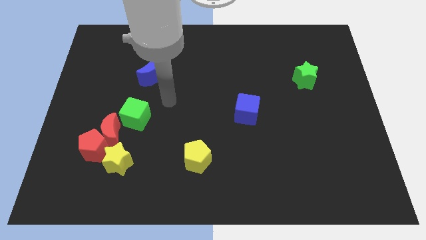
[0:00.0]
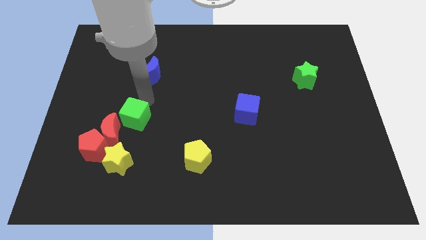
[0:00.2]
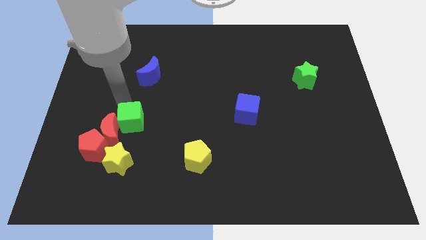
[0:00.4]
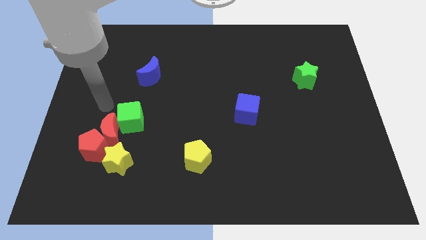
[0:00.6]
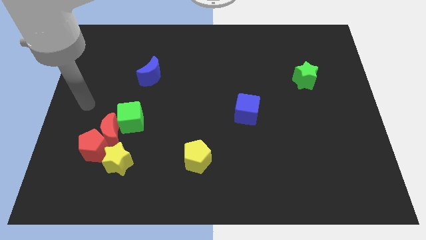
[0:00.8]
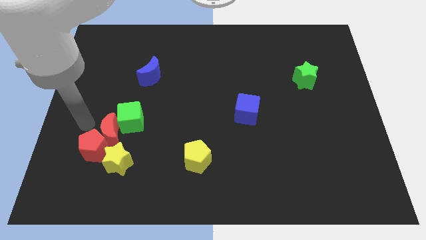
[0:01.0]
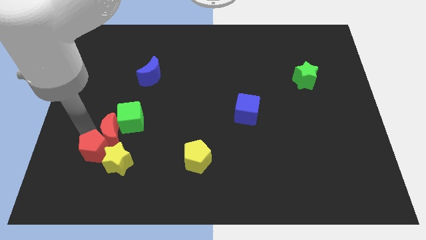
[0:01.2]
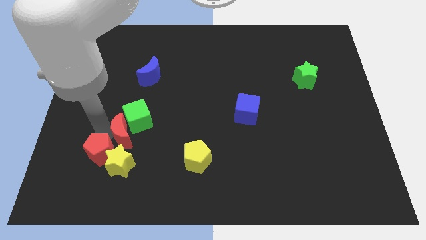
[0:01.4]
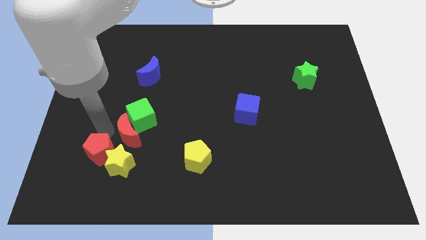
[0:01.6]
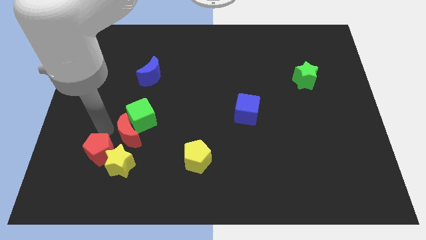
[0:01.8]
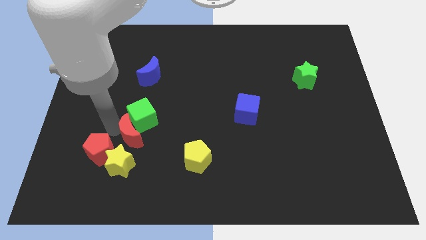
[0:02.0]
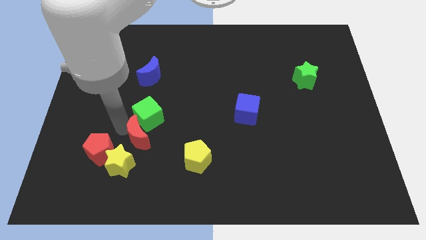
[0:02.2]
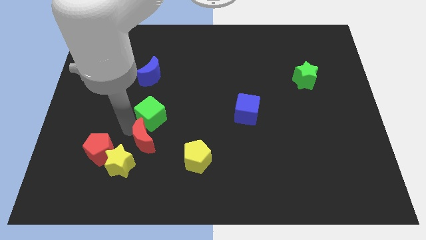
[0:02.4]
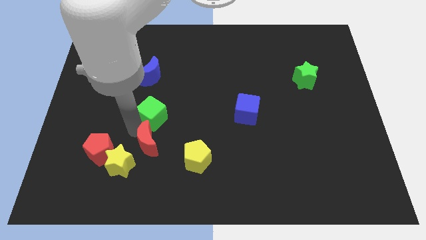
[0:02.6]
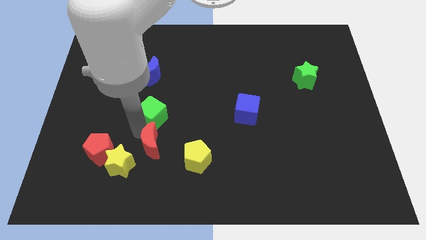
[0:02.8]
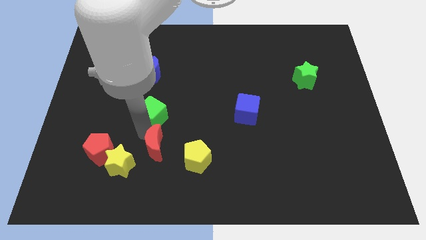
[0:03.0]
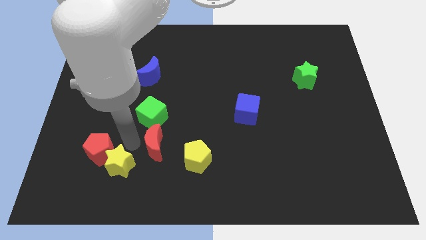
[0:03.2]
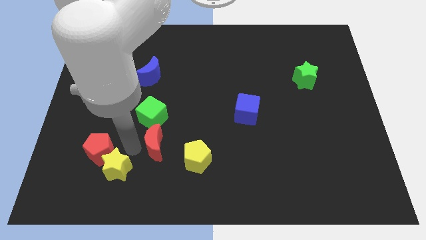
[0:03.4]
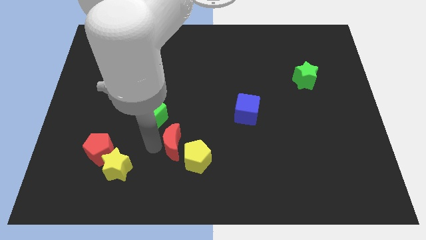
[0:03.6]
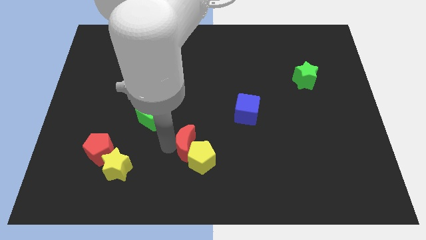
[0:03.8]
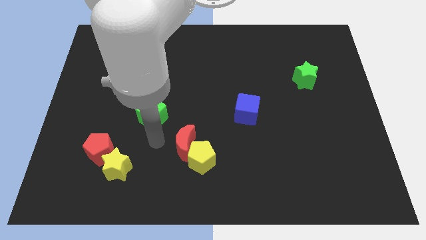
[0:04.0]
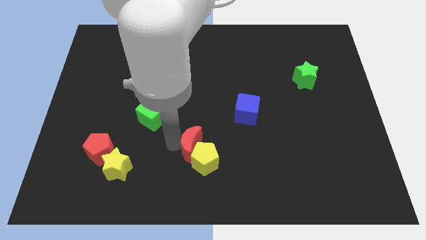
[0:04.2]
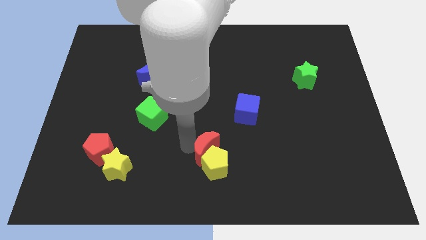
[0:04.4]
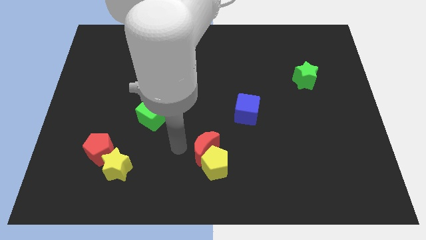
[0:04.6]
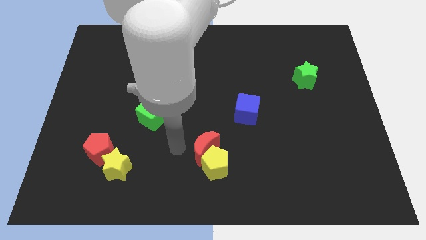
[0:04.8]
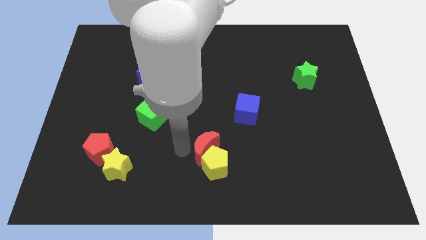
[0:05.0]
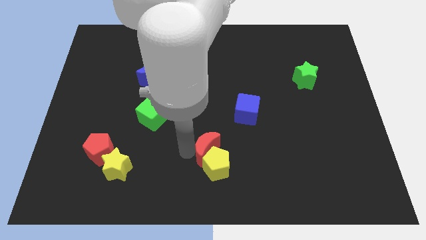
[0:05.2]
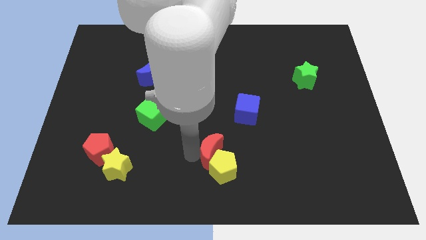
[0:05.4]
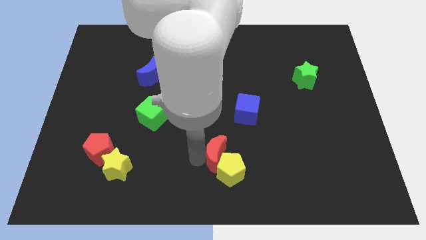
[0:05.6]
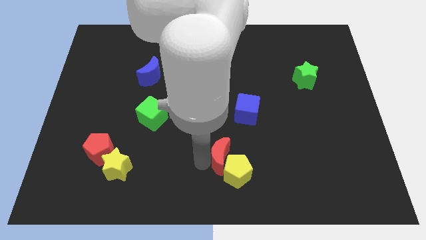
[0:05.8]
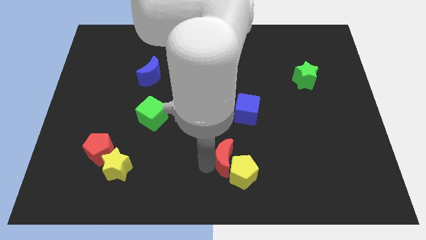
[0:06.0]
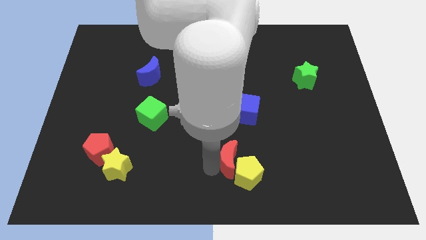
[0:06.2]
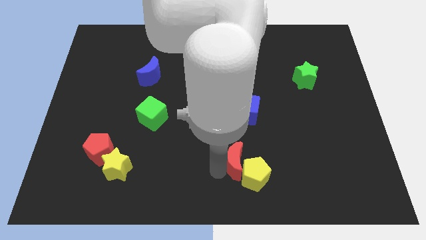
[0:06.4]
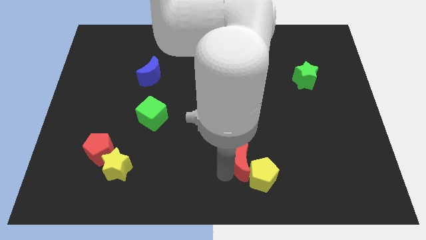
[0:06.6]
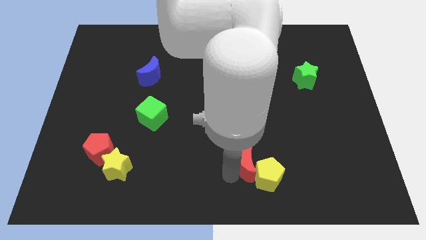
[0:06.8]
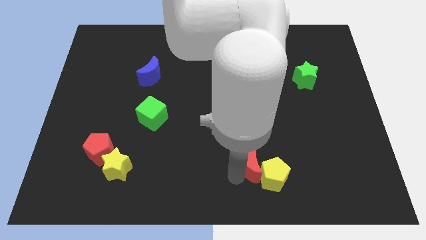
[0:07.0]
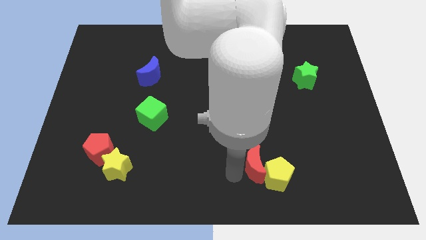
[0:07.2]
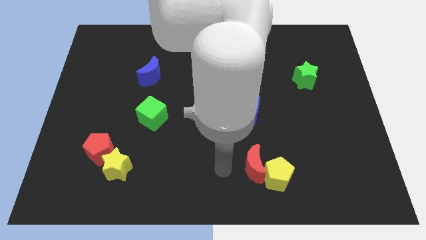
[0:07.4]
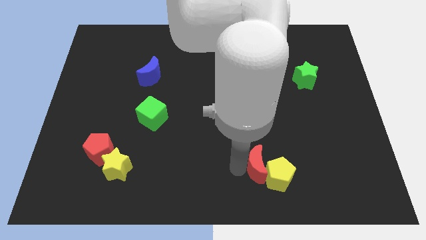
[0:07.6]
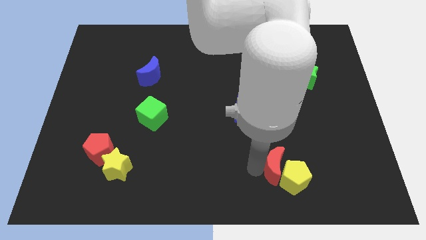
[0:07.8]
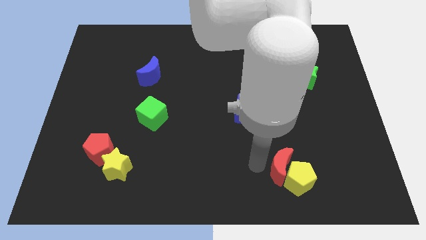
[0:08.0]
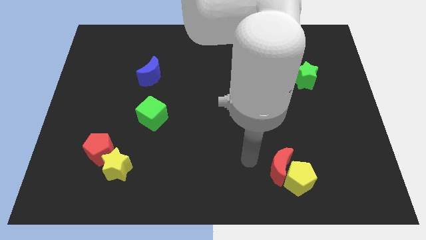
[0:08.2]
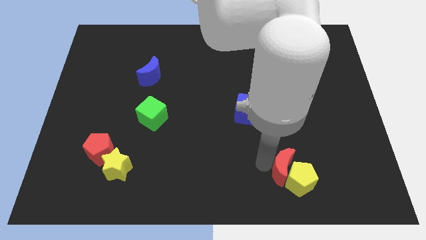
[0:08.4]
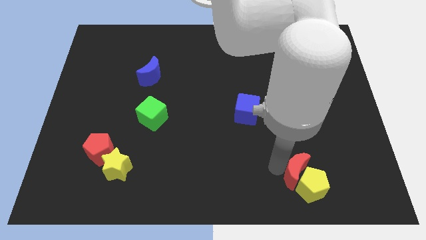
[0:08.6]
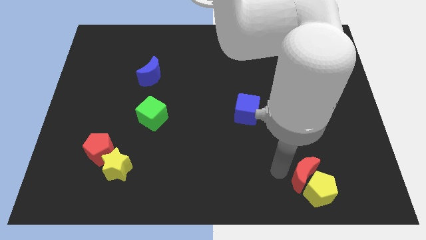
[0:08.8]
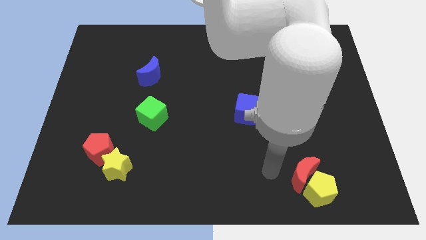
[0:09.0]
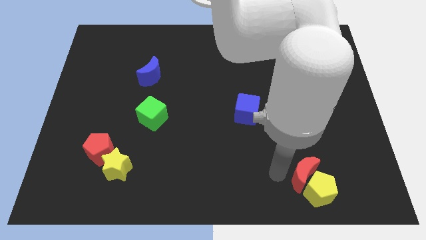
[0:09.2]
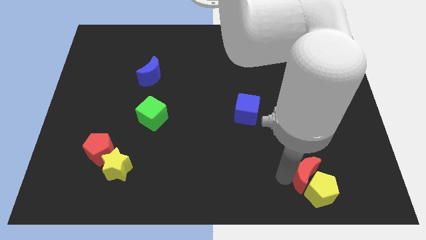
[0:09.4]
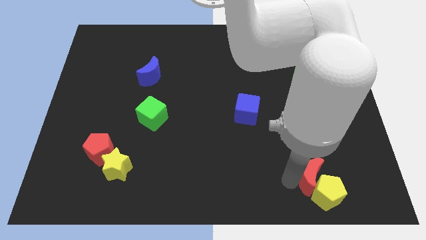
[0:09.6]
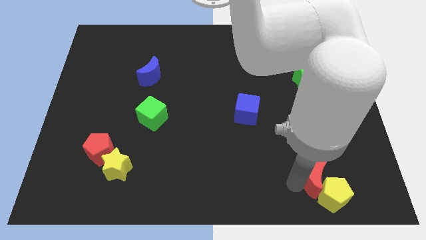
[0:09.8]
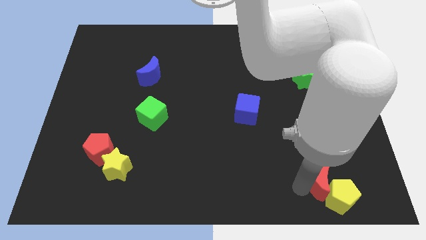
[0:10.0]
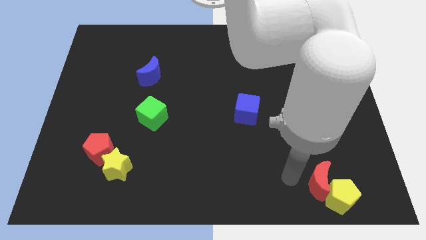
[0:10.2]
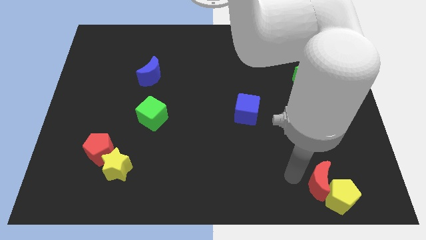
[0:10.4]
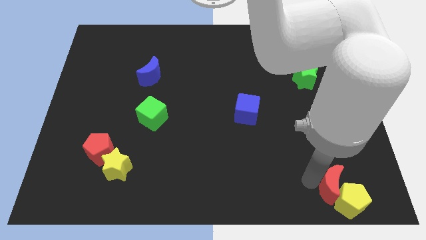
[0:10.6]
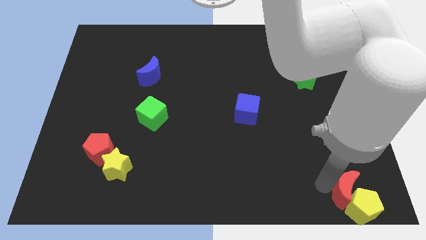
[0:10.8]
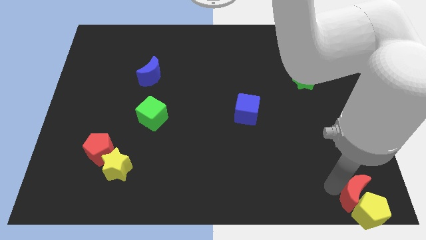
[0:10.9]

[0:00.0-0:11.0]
push the red moon to the bottom right

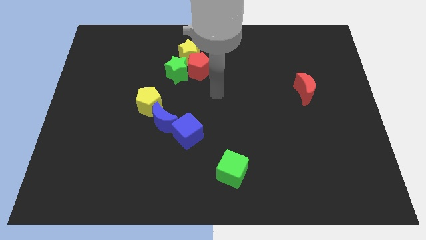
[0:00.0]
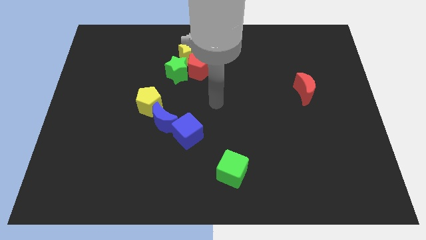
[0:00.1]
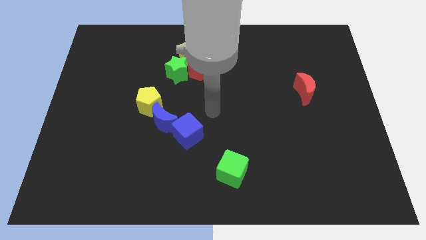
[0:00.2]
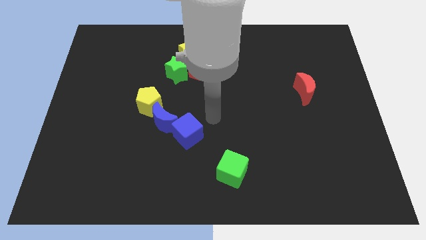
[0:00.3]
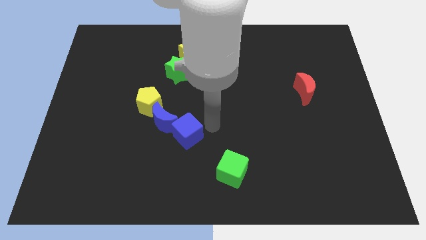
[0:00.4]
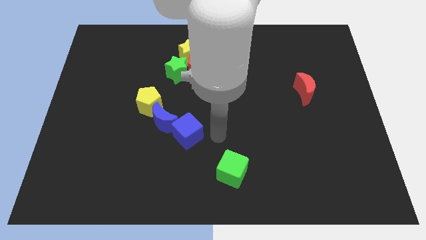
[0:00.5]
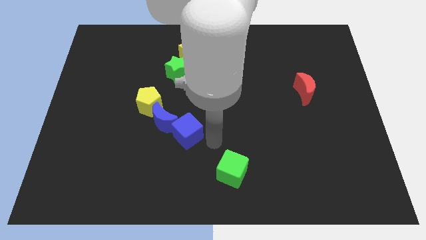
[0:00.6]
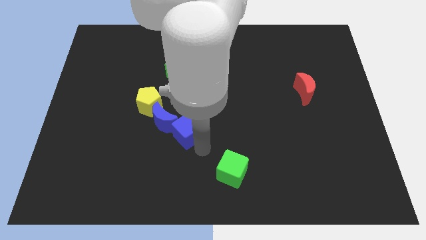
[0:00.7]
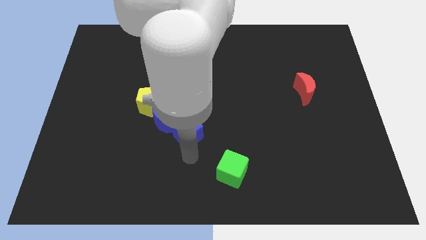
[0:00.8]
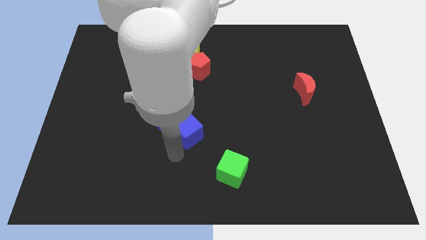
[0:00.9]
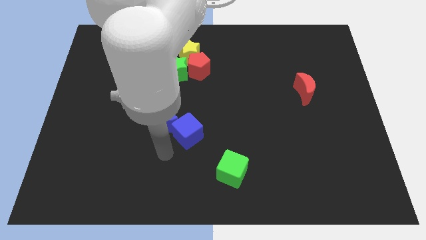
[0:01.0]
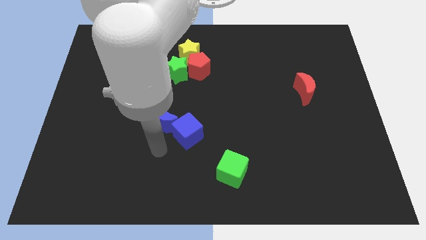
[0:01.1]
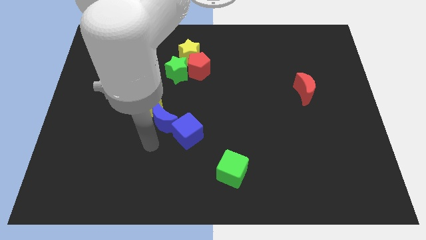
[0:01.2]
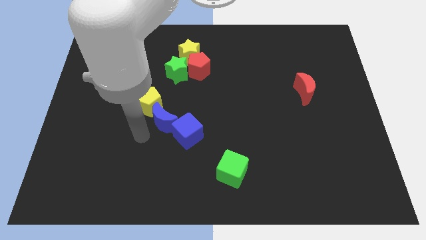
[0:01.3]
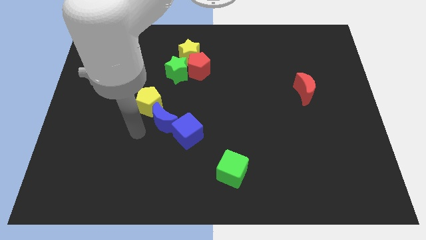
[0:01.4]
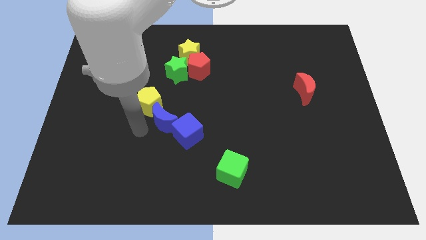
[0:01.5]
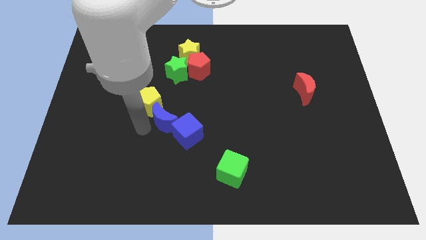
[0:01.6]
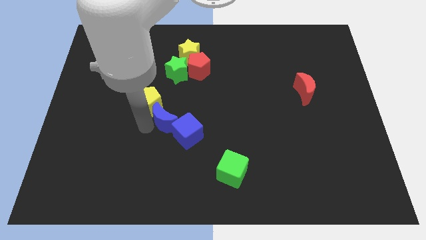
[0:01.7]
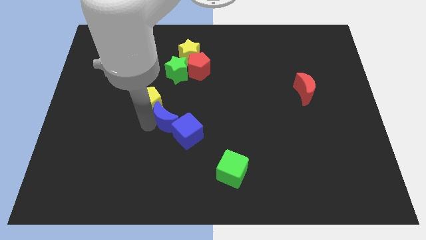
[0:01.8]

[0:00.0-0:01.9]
push the blue moon to the center of the board
